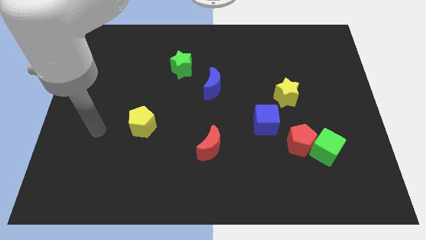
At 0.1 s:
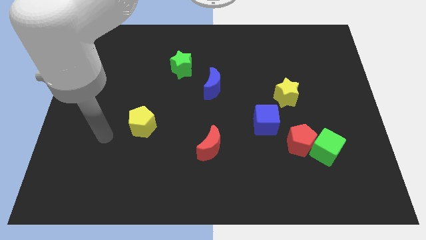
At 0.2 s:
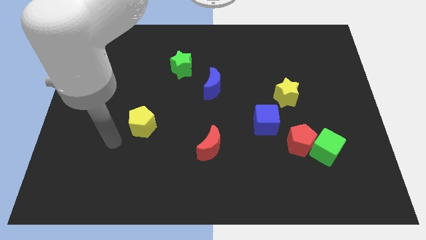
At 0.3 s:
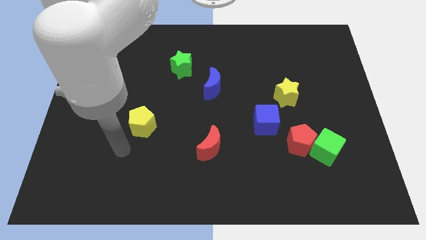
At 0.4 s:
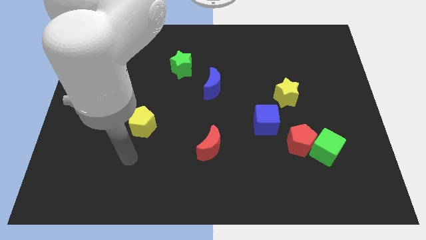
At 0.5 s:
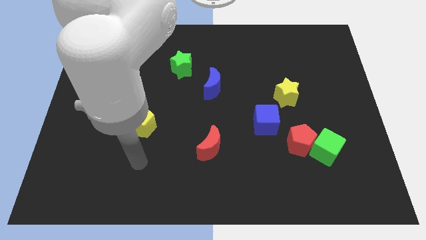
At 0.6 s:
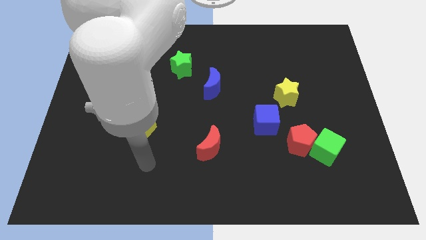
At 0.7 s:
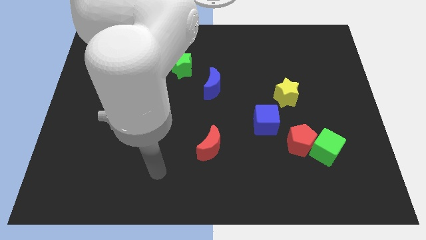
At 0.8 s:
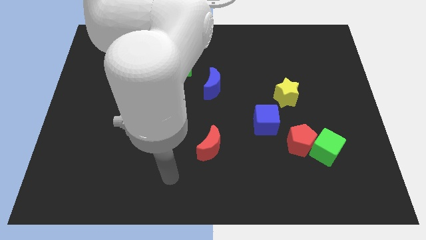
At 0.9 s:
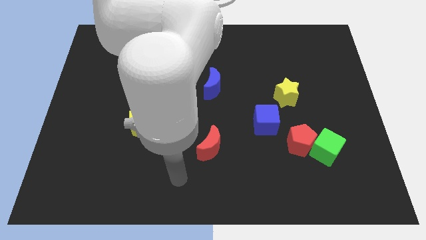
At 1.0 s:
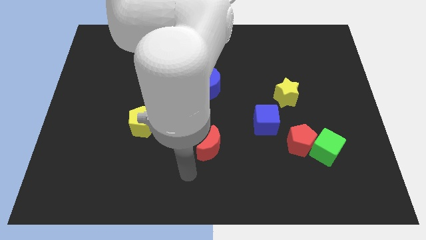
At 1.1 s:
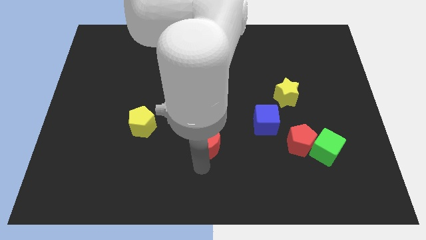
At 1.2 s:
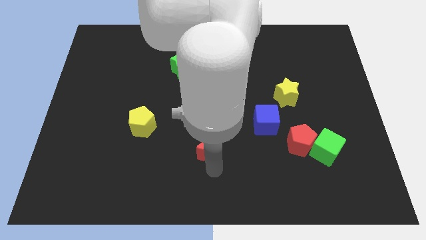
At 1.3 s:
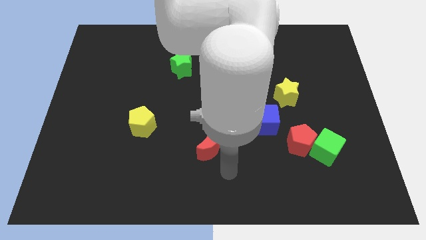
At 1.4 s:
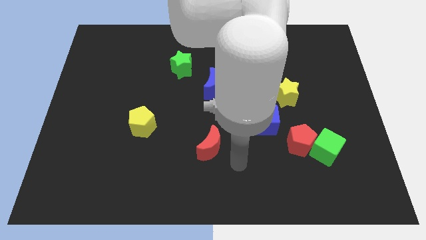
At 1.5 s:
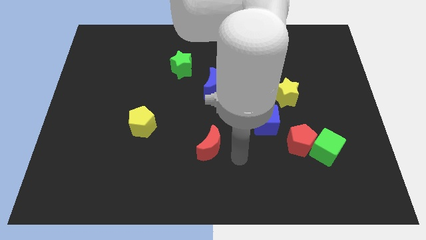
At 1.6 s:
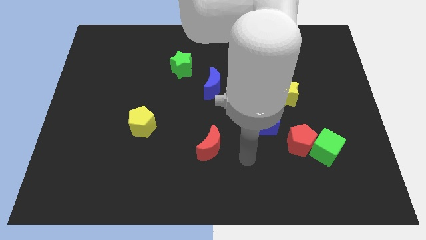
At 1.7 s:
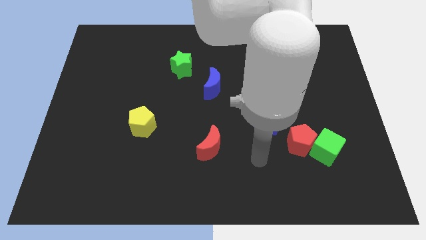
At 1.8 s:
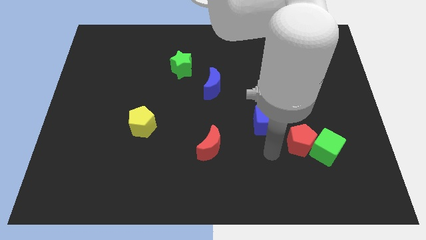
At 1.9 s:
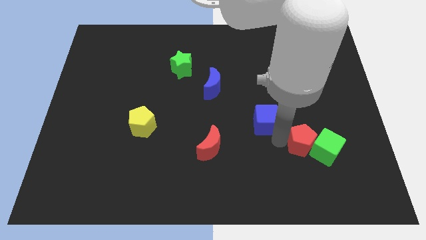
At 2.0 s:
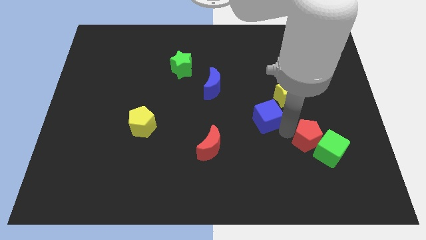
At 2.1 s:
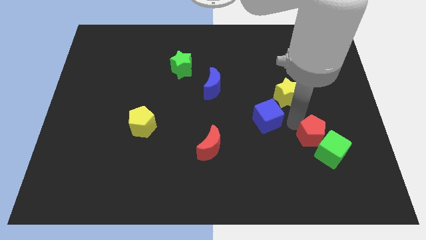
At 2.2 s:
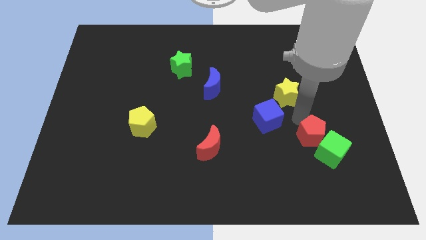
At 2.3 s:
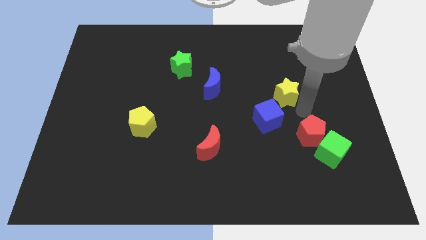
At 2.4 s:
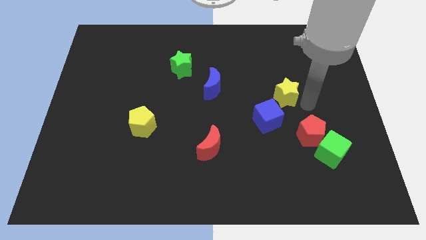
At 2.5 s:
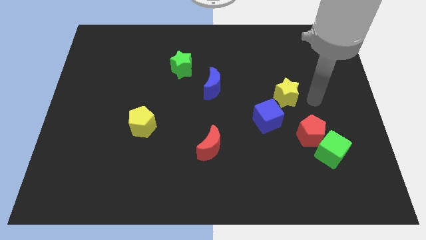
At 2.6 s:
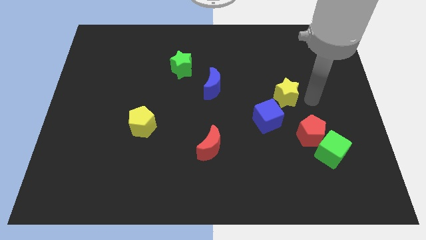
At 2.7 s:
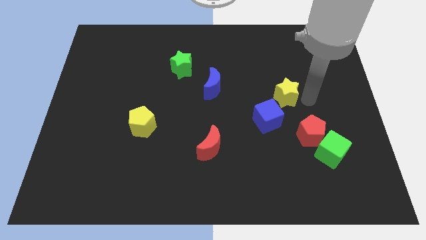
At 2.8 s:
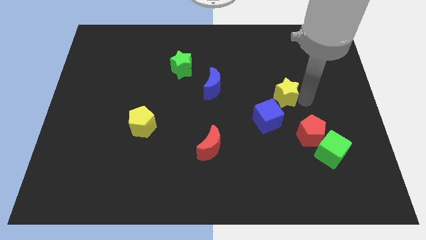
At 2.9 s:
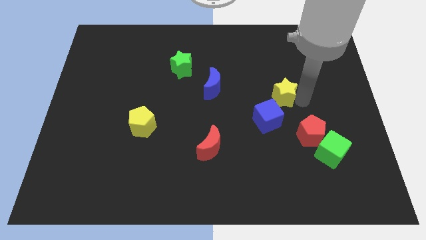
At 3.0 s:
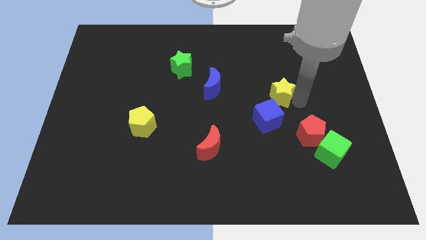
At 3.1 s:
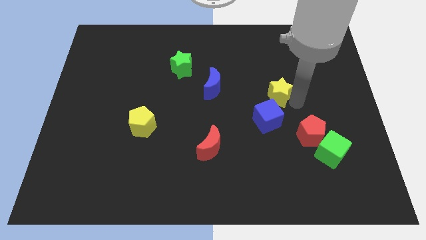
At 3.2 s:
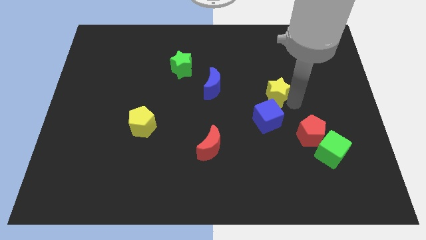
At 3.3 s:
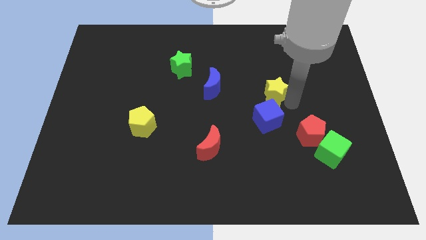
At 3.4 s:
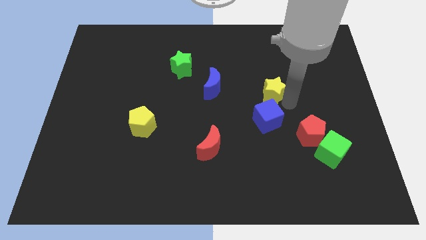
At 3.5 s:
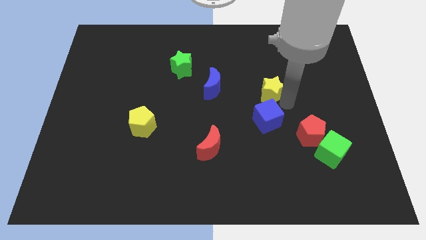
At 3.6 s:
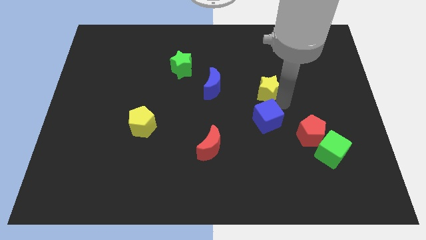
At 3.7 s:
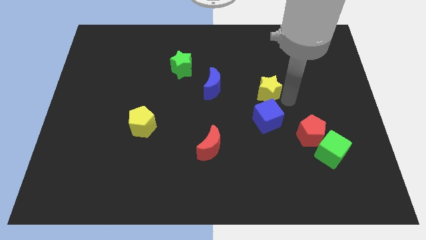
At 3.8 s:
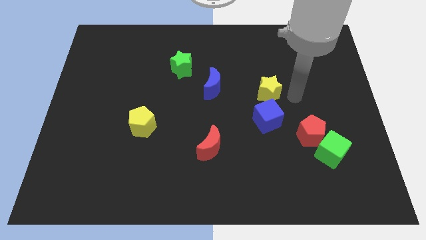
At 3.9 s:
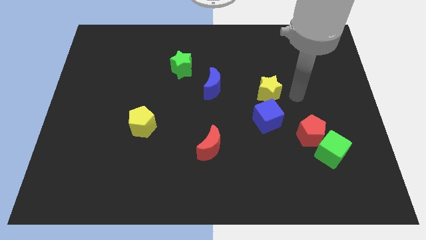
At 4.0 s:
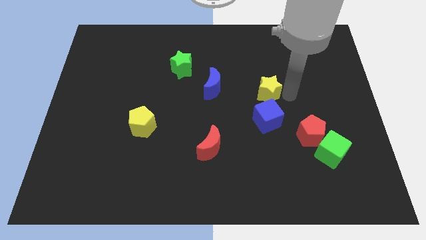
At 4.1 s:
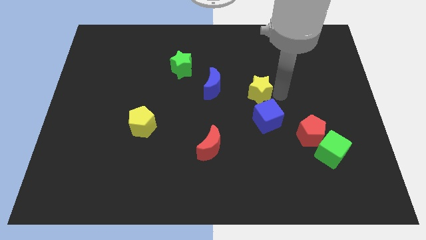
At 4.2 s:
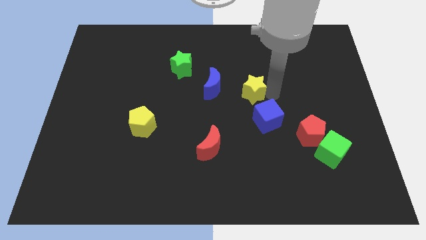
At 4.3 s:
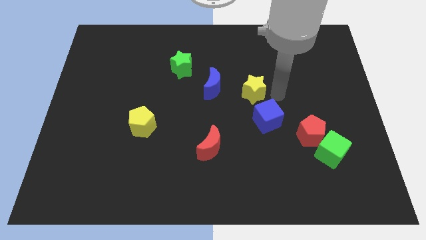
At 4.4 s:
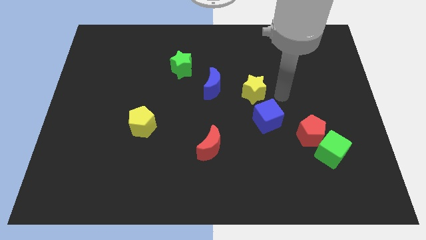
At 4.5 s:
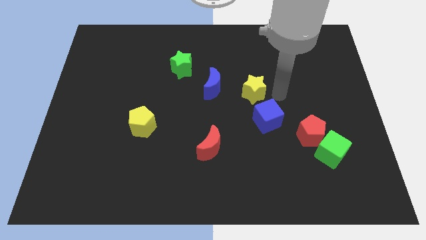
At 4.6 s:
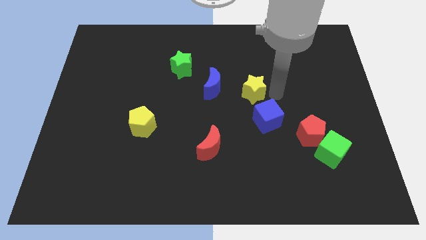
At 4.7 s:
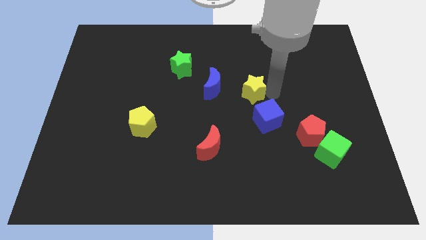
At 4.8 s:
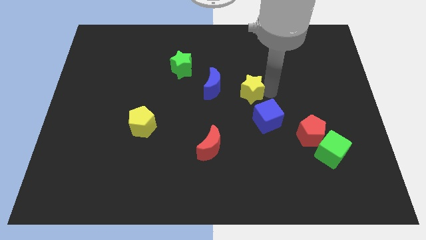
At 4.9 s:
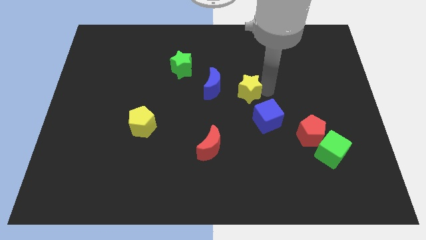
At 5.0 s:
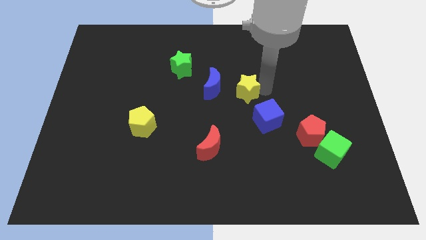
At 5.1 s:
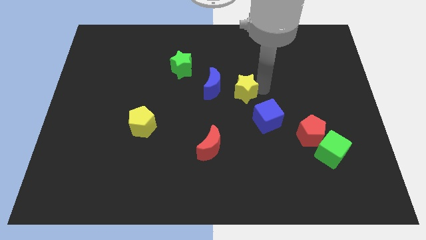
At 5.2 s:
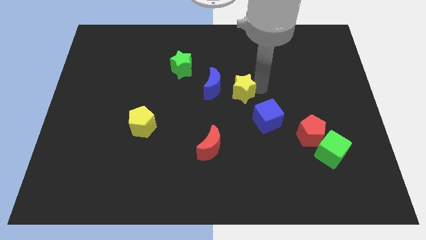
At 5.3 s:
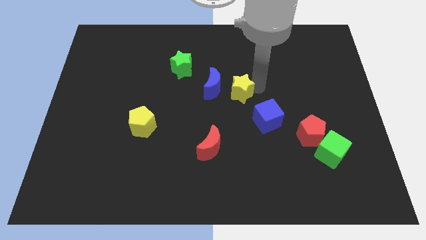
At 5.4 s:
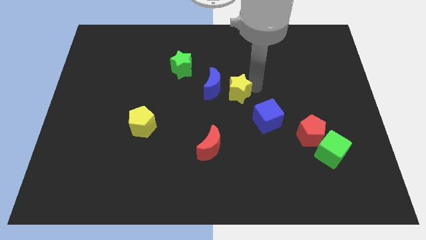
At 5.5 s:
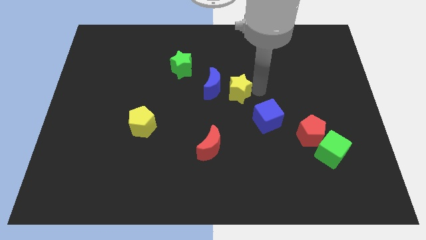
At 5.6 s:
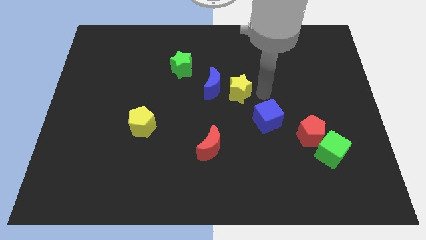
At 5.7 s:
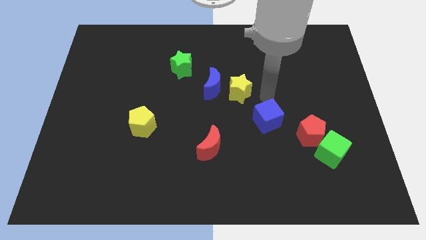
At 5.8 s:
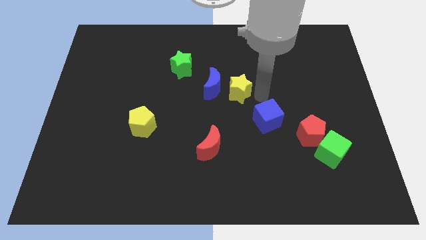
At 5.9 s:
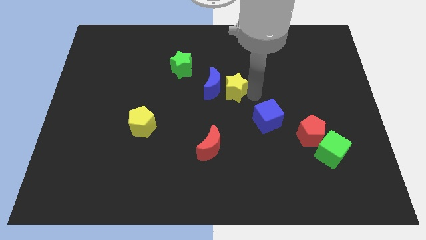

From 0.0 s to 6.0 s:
move the yellow star towards the blue moon
